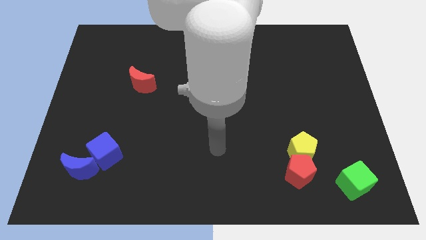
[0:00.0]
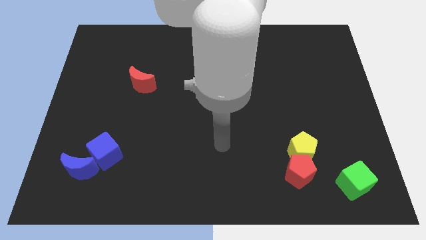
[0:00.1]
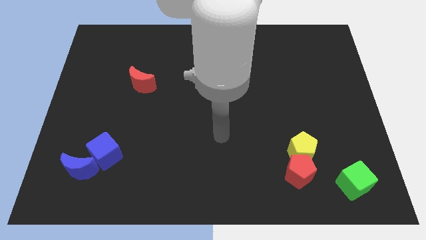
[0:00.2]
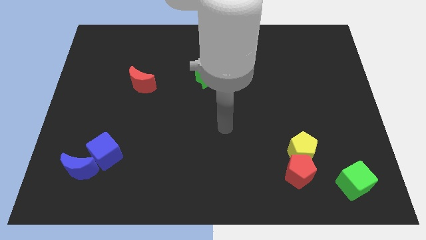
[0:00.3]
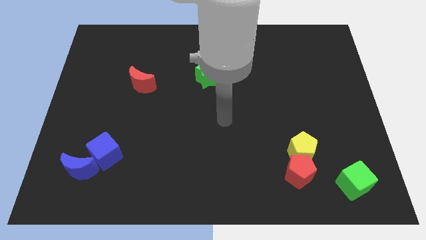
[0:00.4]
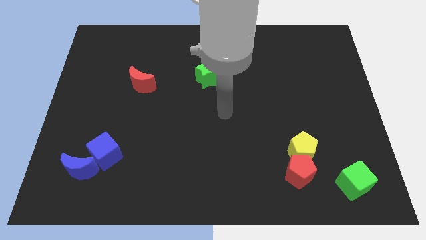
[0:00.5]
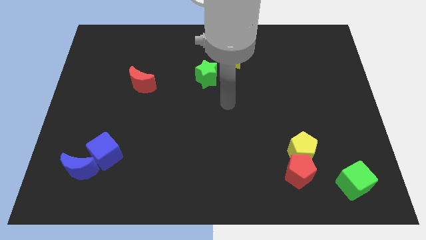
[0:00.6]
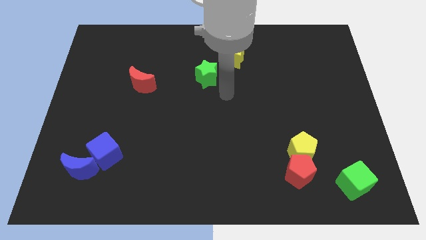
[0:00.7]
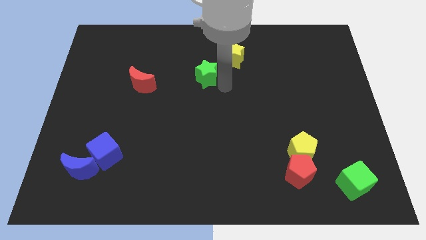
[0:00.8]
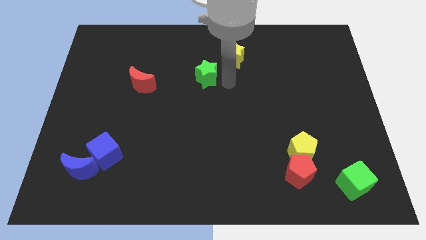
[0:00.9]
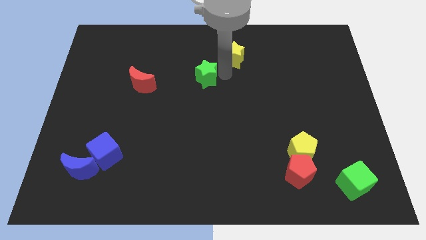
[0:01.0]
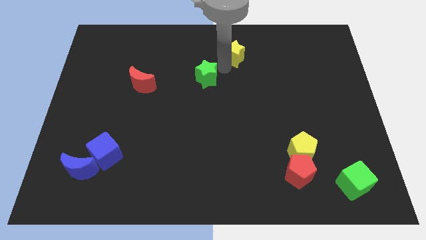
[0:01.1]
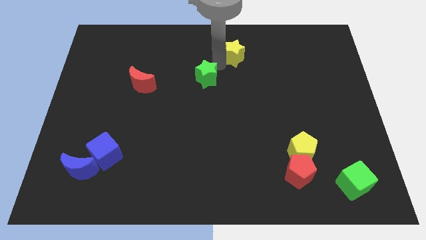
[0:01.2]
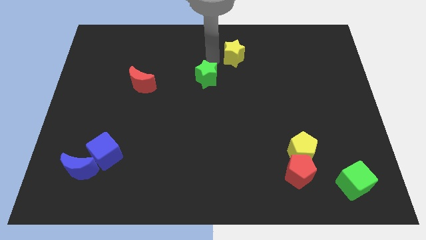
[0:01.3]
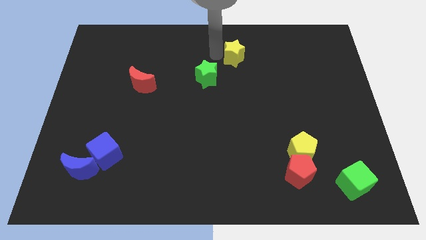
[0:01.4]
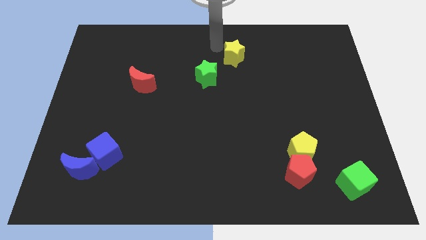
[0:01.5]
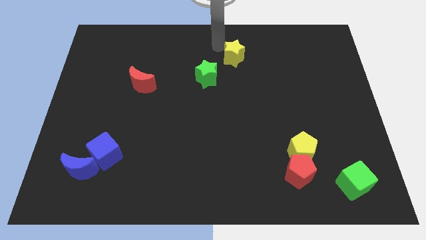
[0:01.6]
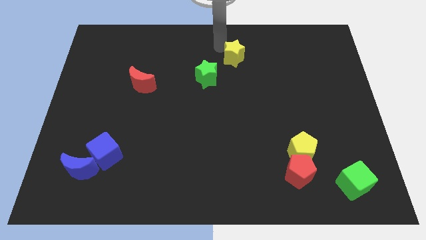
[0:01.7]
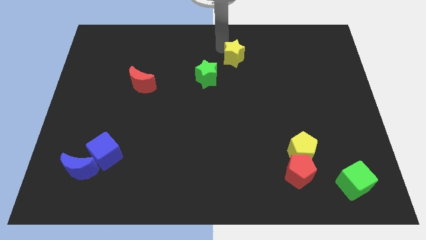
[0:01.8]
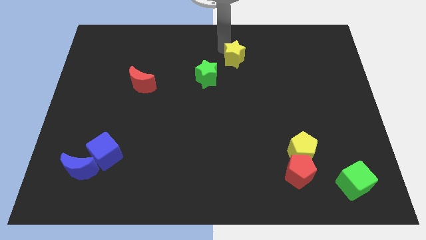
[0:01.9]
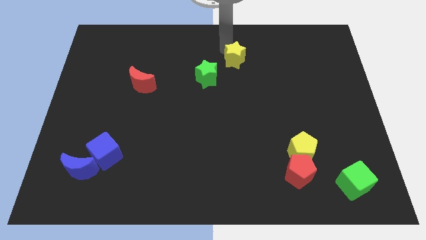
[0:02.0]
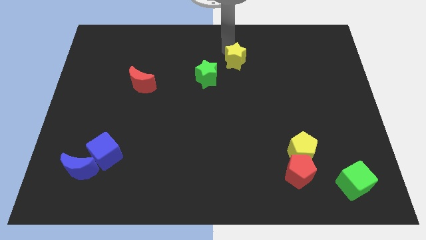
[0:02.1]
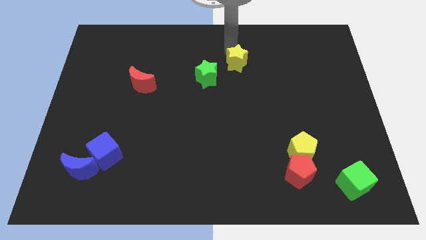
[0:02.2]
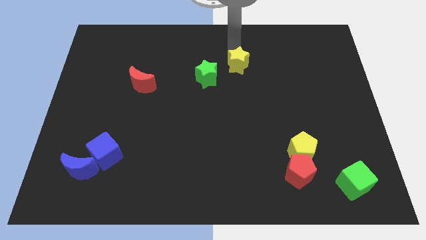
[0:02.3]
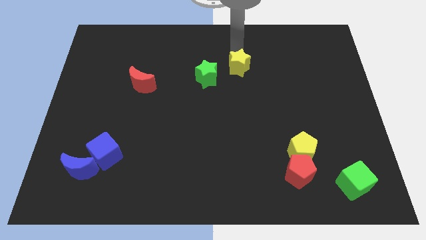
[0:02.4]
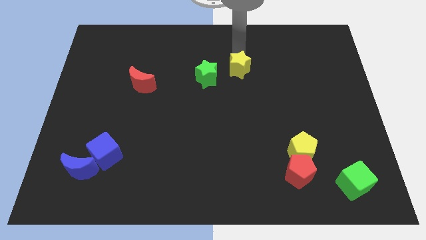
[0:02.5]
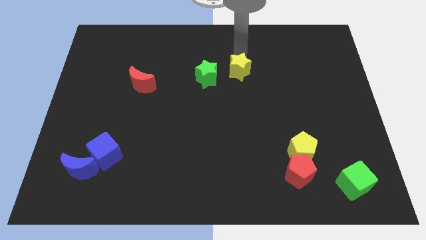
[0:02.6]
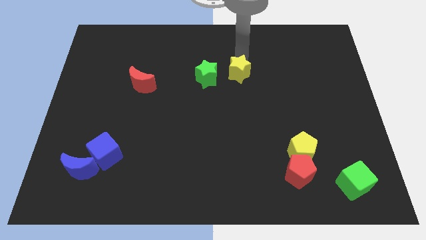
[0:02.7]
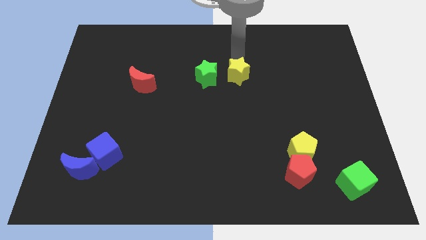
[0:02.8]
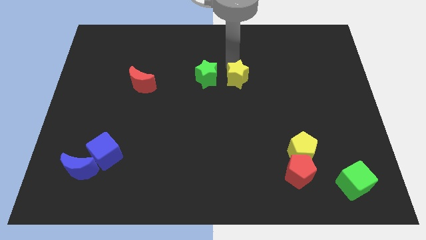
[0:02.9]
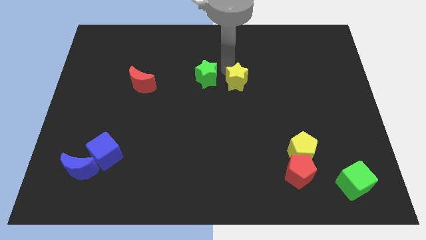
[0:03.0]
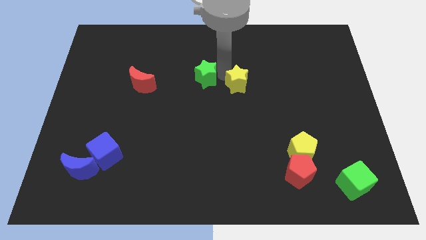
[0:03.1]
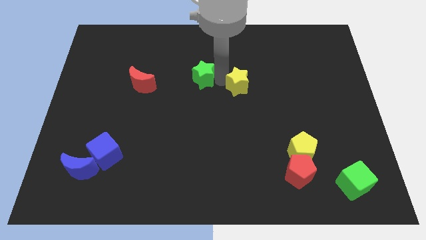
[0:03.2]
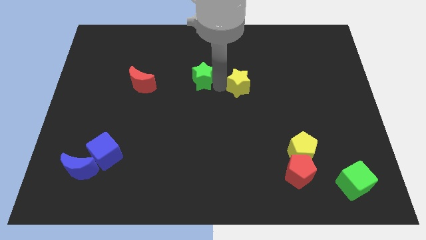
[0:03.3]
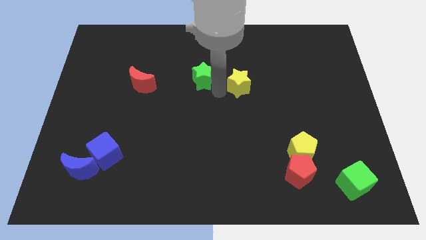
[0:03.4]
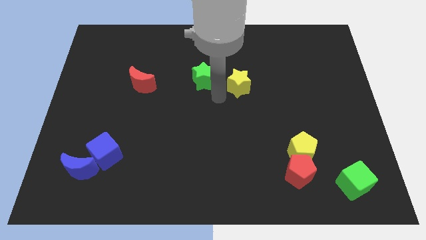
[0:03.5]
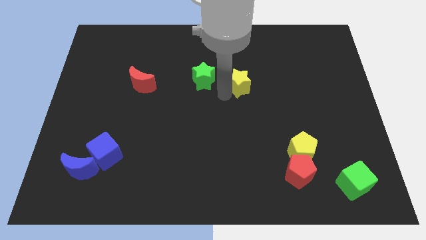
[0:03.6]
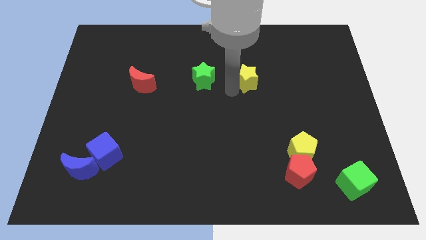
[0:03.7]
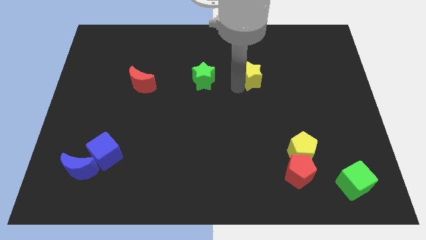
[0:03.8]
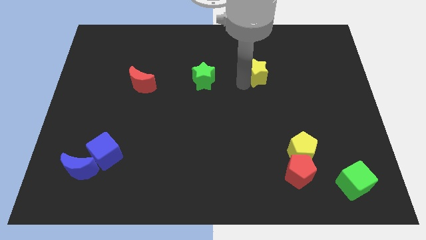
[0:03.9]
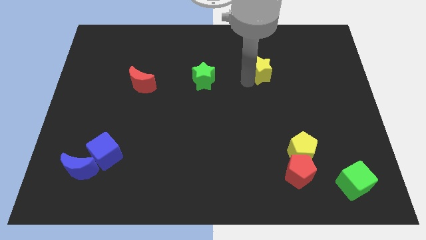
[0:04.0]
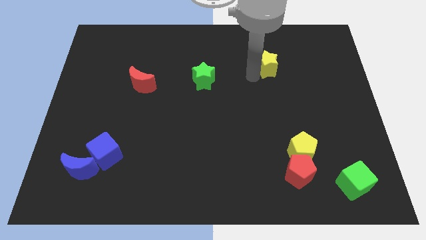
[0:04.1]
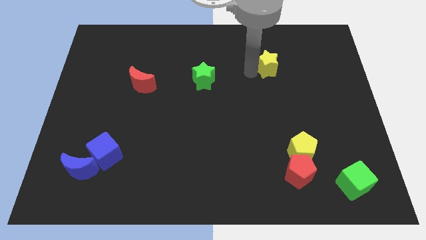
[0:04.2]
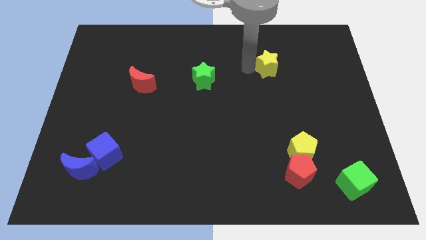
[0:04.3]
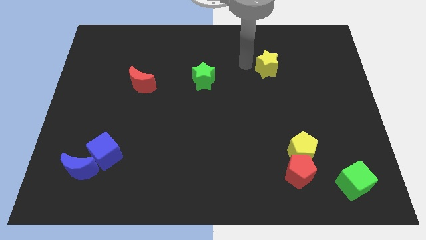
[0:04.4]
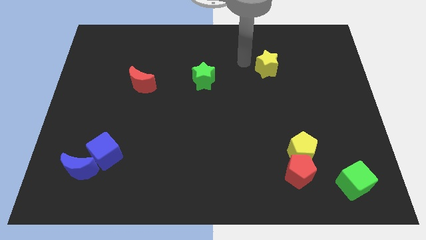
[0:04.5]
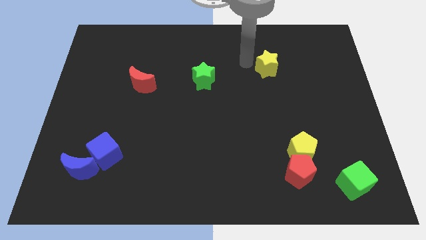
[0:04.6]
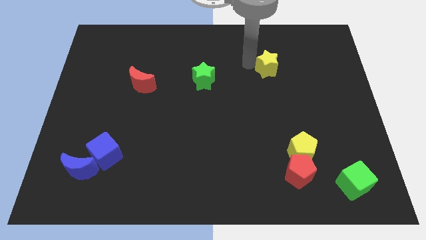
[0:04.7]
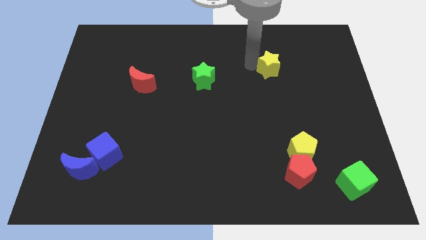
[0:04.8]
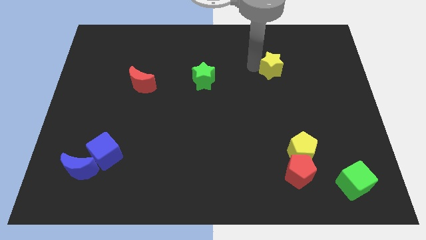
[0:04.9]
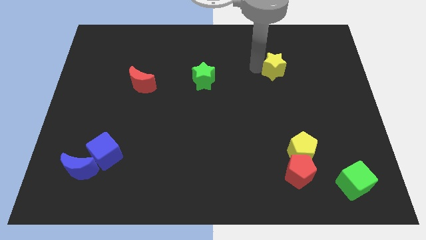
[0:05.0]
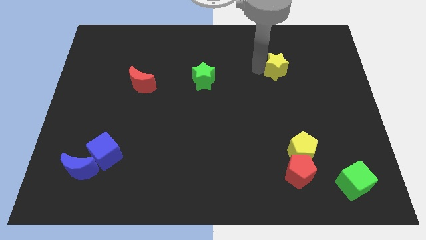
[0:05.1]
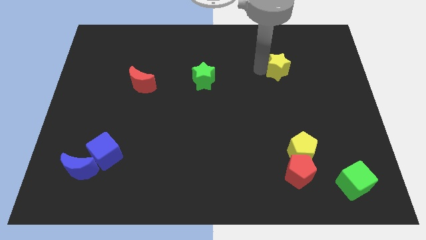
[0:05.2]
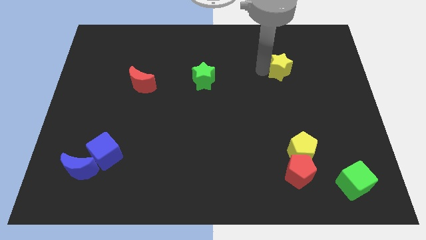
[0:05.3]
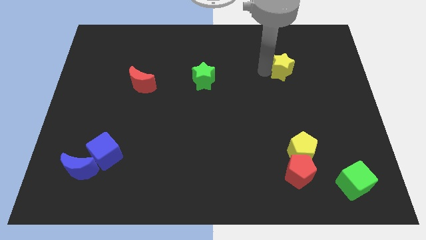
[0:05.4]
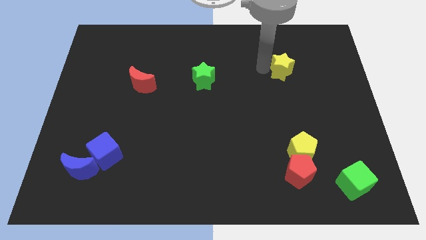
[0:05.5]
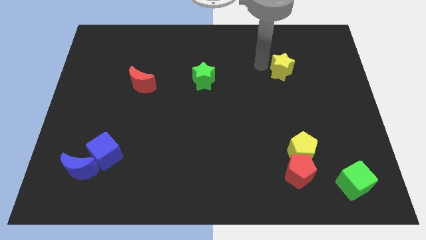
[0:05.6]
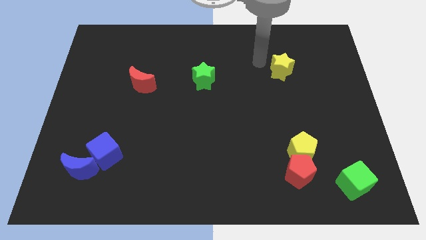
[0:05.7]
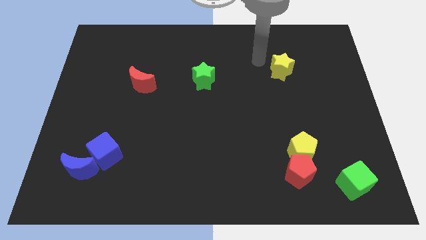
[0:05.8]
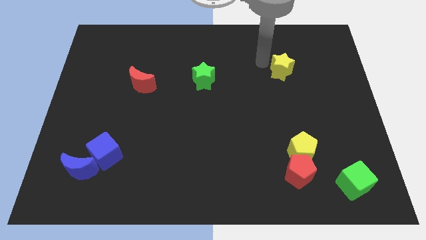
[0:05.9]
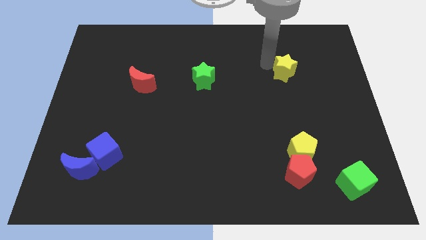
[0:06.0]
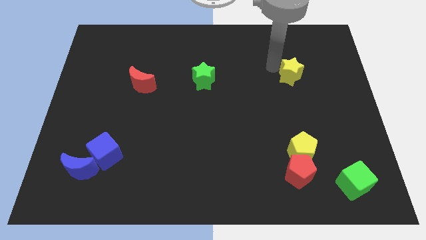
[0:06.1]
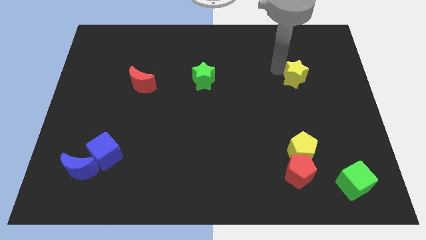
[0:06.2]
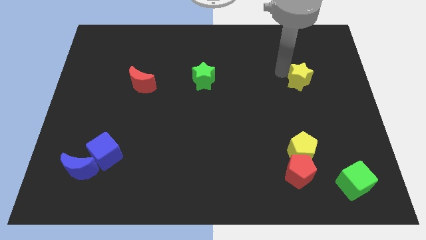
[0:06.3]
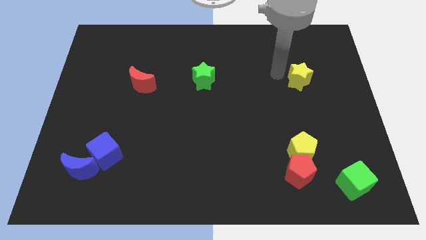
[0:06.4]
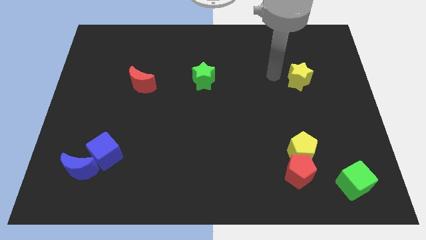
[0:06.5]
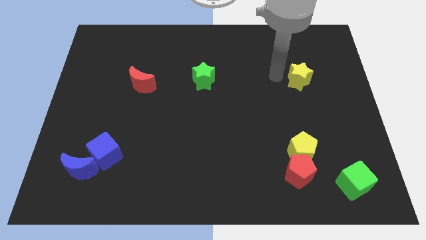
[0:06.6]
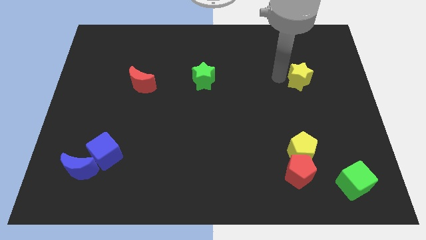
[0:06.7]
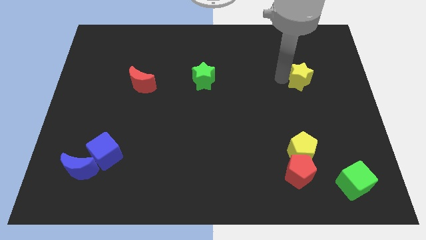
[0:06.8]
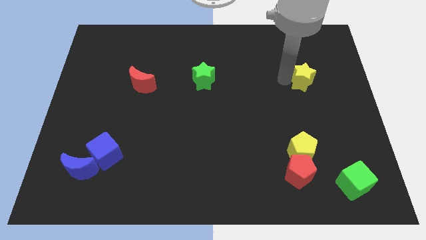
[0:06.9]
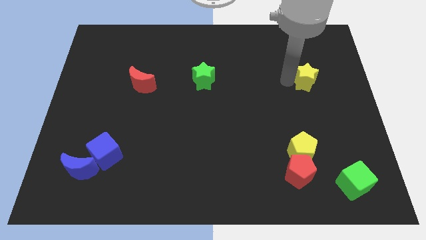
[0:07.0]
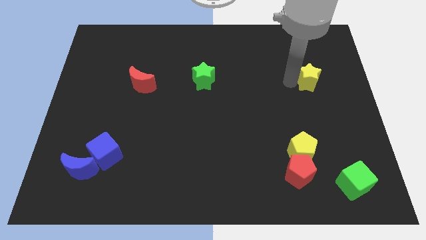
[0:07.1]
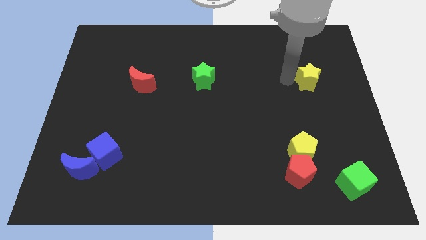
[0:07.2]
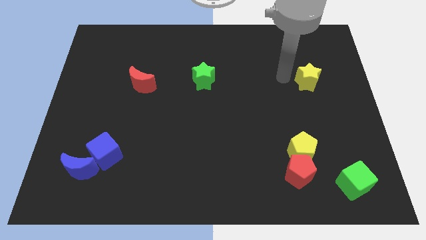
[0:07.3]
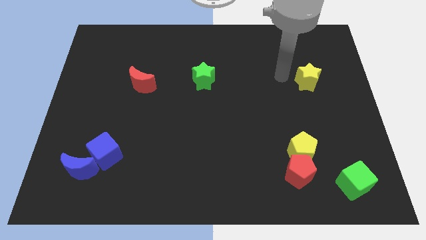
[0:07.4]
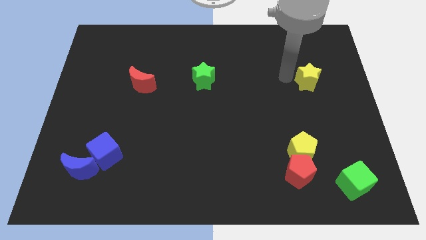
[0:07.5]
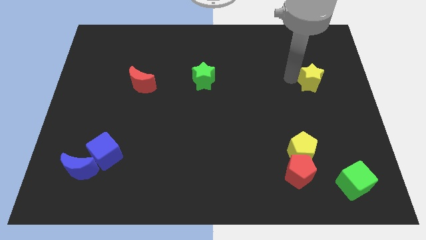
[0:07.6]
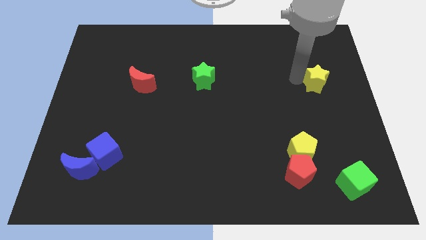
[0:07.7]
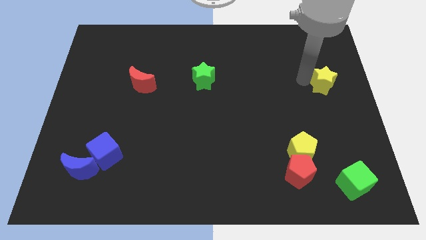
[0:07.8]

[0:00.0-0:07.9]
move the yellow star to the center right

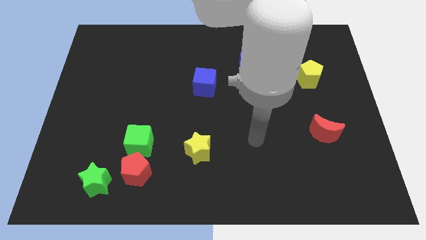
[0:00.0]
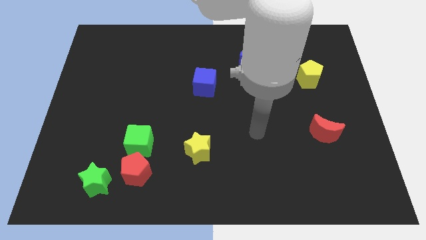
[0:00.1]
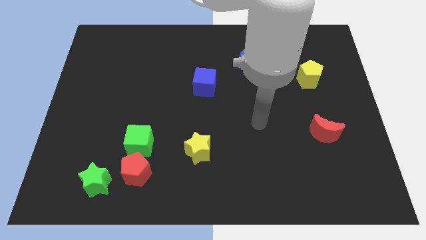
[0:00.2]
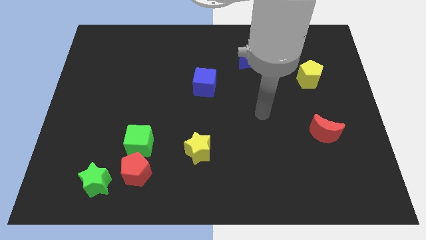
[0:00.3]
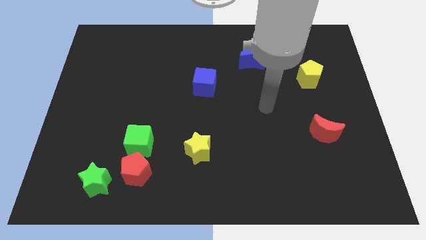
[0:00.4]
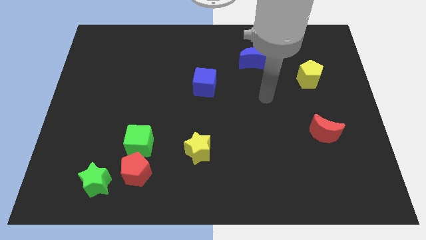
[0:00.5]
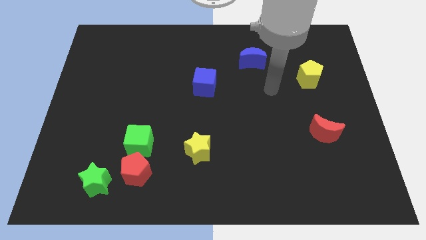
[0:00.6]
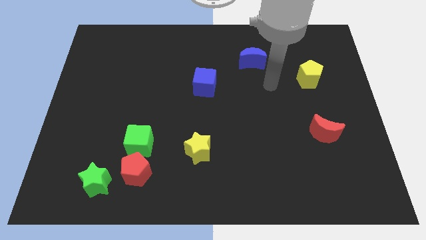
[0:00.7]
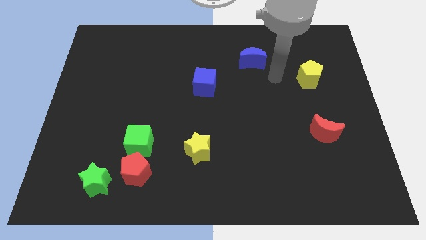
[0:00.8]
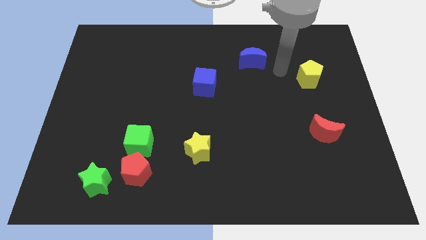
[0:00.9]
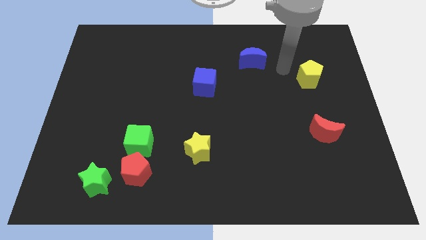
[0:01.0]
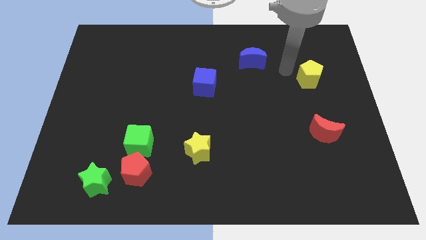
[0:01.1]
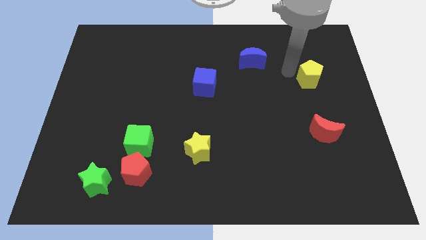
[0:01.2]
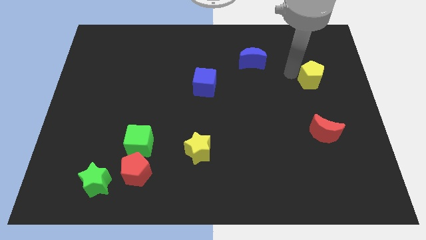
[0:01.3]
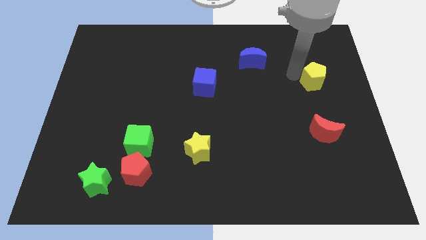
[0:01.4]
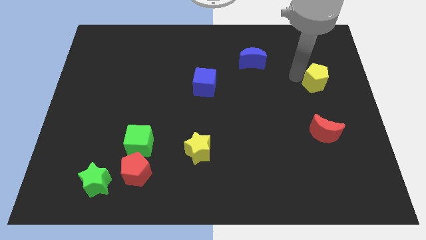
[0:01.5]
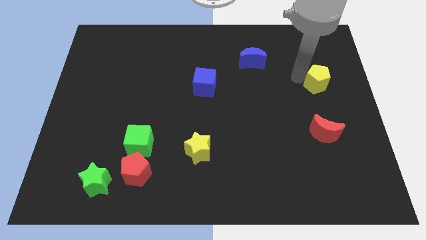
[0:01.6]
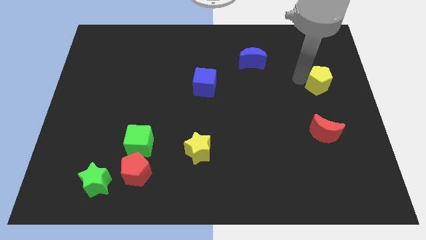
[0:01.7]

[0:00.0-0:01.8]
slide the yellow pentagon to the right side
